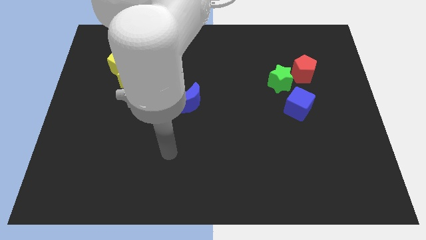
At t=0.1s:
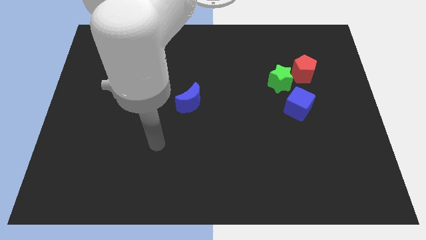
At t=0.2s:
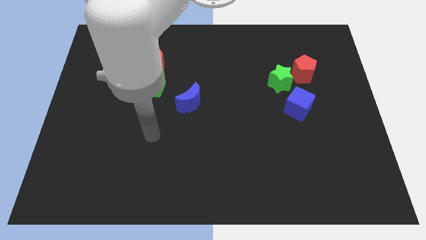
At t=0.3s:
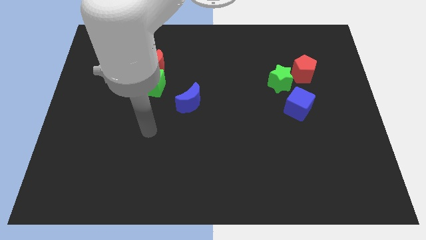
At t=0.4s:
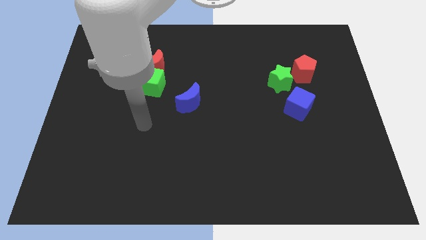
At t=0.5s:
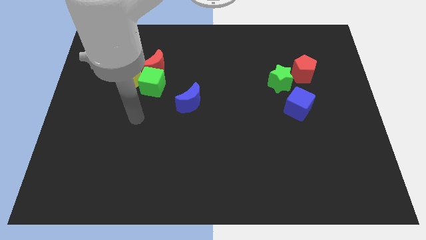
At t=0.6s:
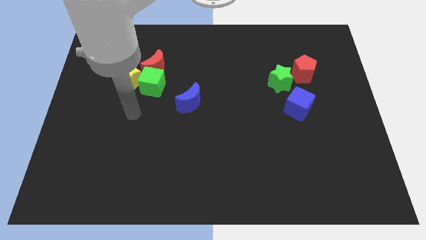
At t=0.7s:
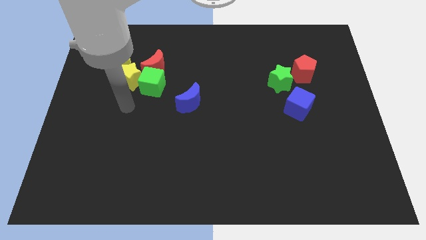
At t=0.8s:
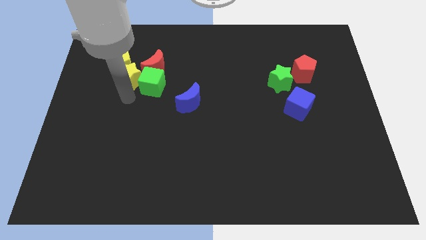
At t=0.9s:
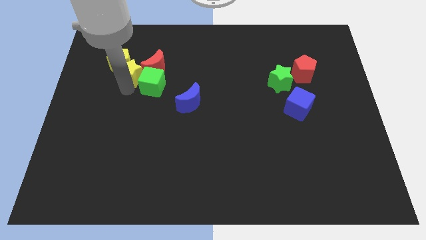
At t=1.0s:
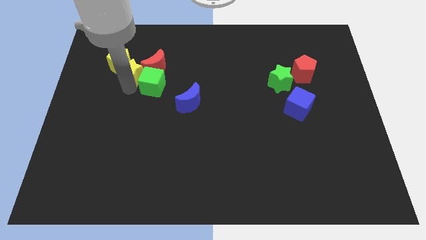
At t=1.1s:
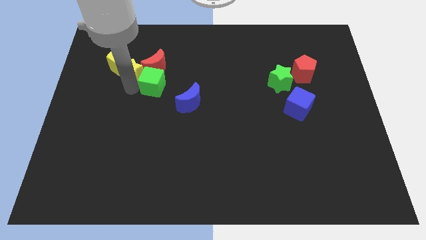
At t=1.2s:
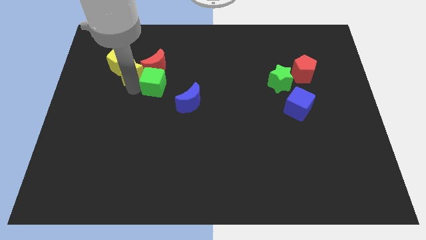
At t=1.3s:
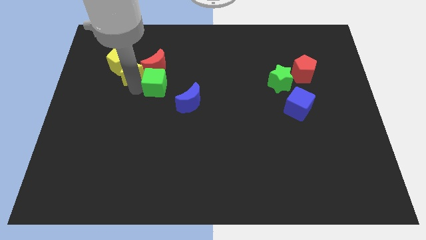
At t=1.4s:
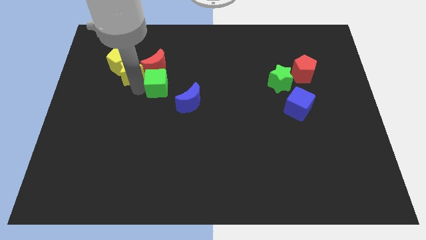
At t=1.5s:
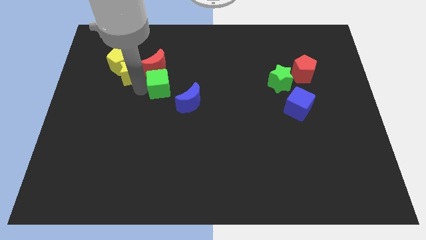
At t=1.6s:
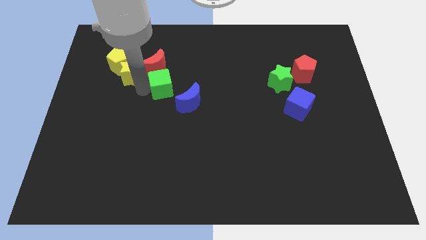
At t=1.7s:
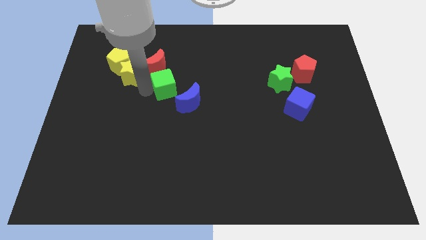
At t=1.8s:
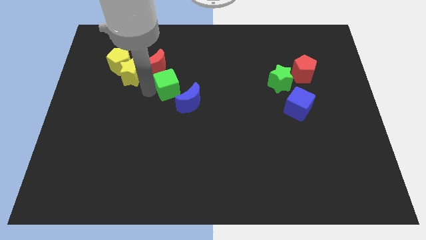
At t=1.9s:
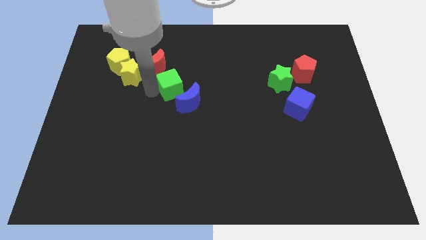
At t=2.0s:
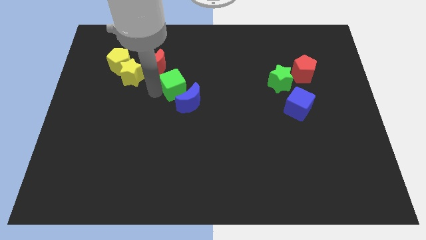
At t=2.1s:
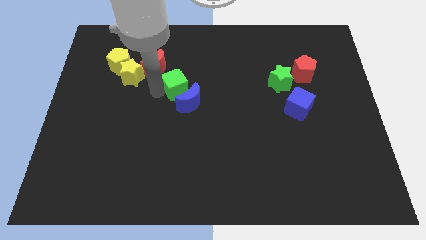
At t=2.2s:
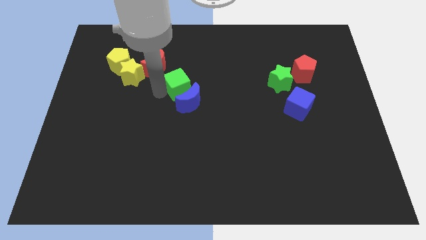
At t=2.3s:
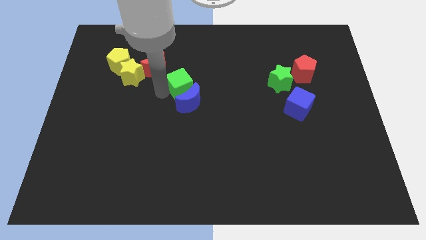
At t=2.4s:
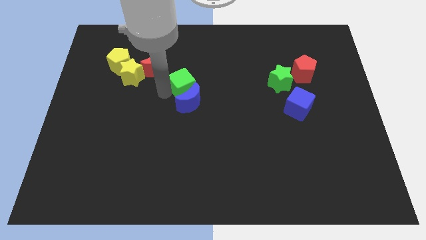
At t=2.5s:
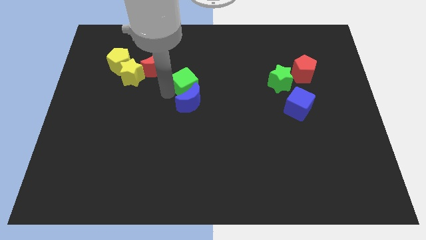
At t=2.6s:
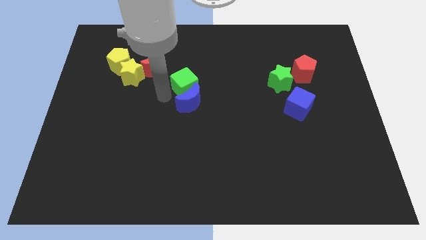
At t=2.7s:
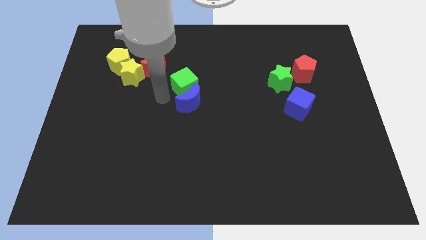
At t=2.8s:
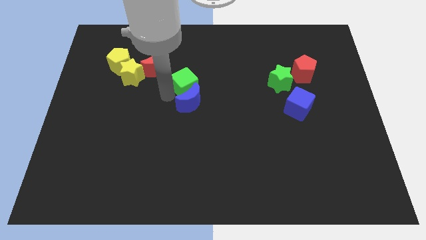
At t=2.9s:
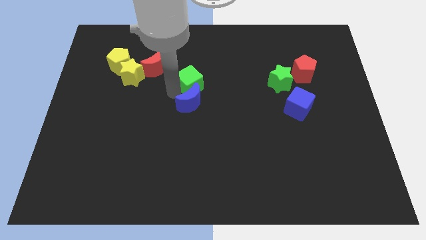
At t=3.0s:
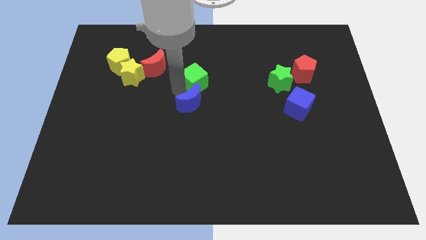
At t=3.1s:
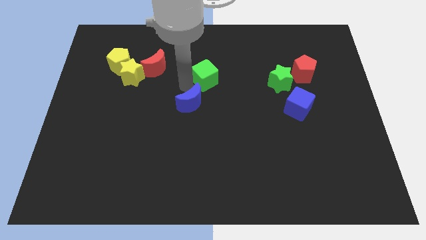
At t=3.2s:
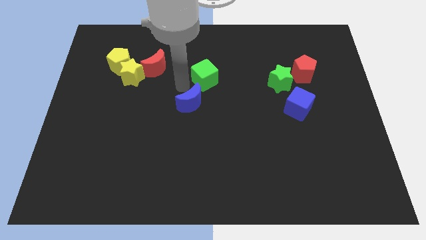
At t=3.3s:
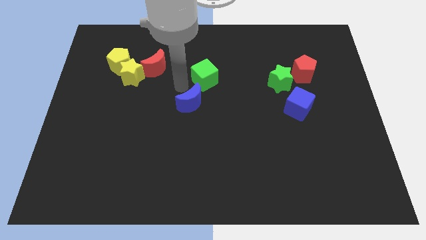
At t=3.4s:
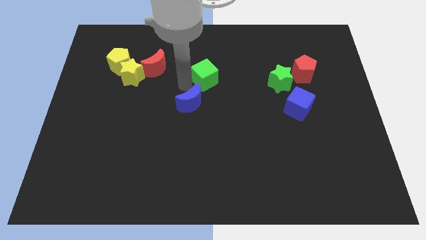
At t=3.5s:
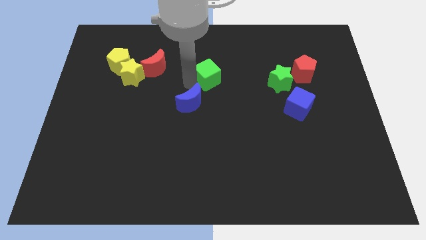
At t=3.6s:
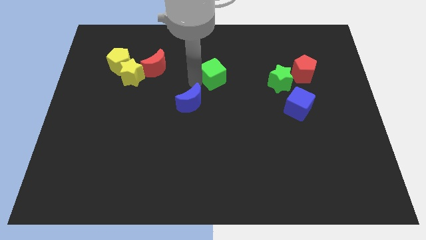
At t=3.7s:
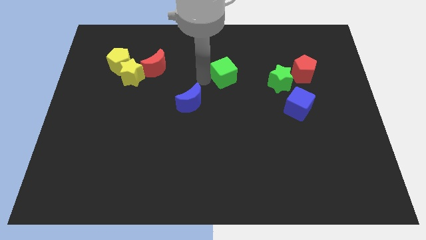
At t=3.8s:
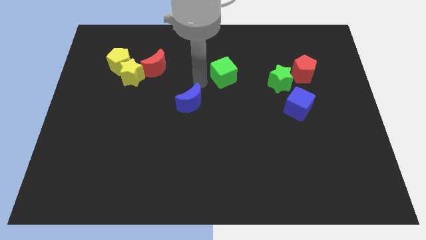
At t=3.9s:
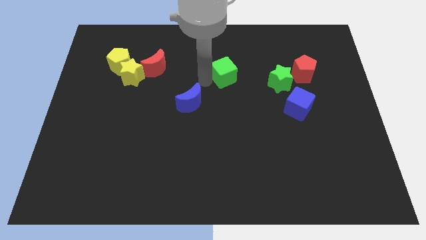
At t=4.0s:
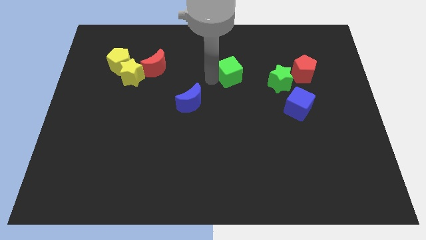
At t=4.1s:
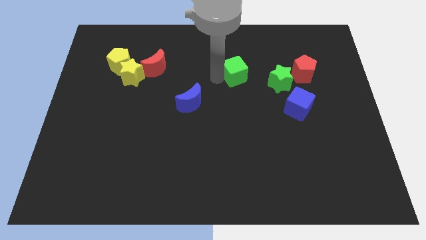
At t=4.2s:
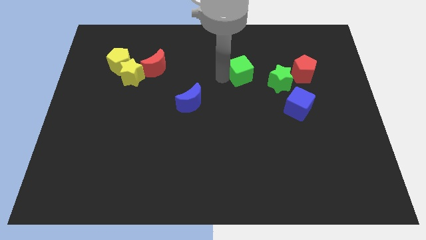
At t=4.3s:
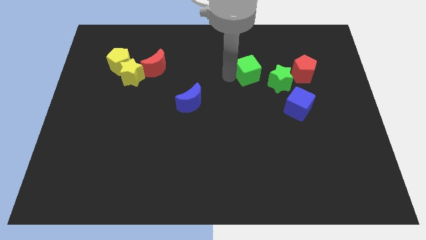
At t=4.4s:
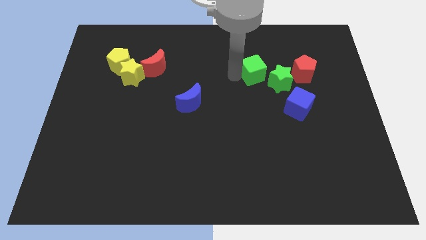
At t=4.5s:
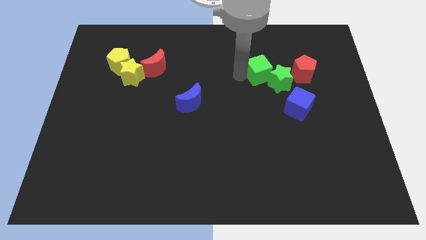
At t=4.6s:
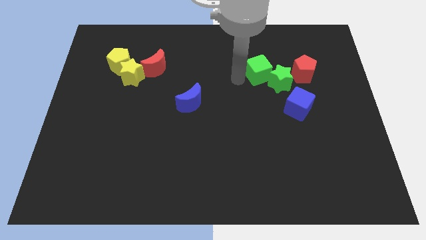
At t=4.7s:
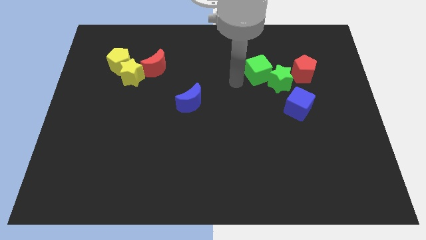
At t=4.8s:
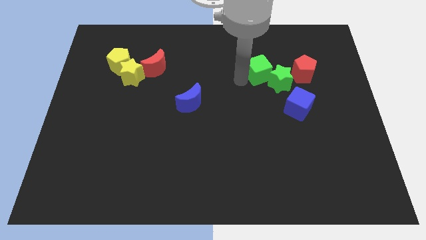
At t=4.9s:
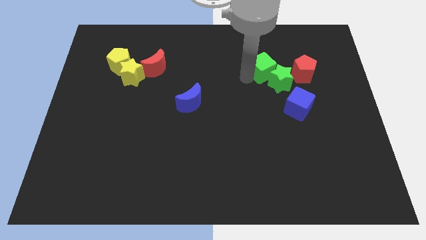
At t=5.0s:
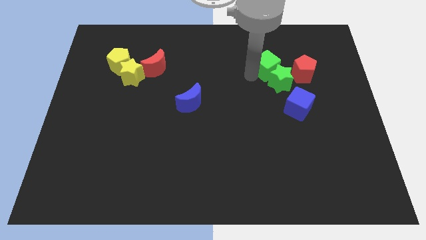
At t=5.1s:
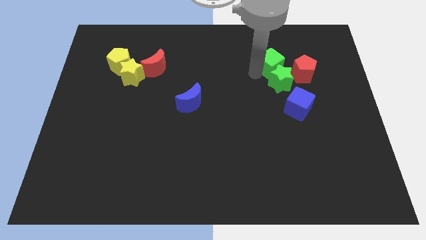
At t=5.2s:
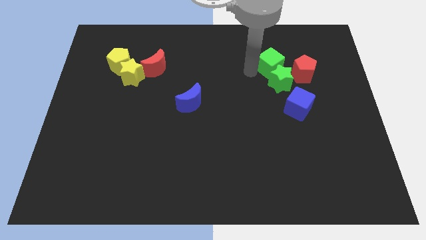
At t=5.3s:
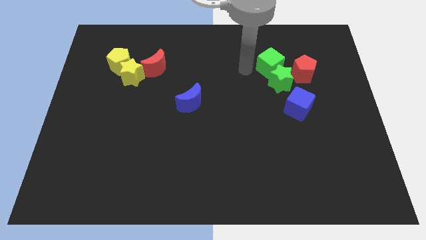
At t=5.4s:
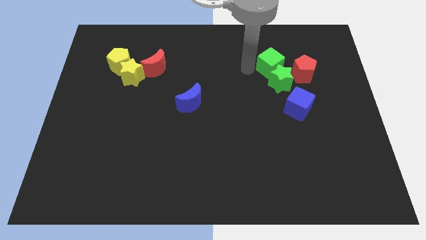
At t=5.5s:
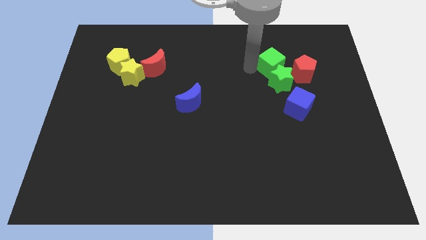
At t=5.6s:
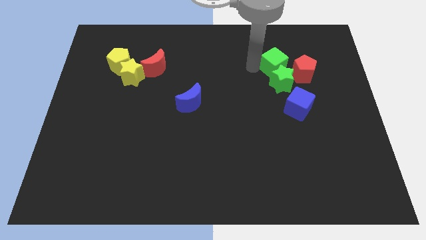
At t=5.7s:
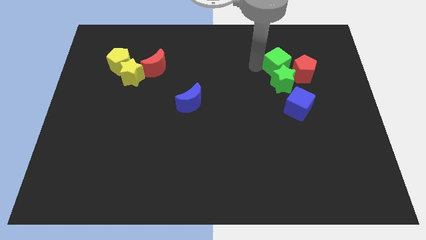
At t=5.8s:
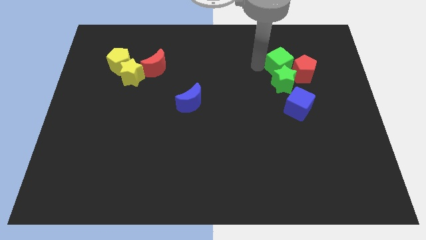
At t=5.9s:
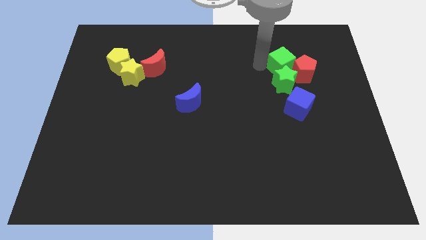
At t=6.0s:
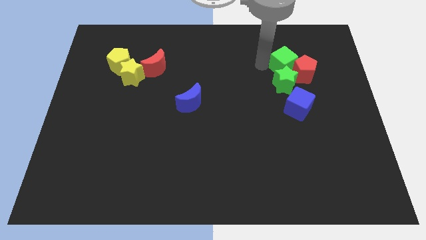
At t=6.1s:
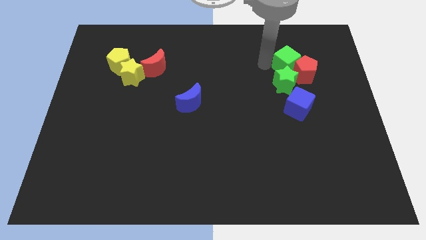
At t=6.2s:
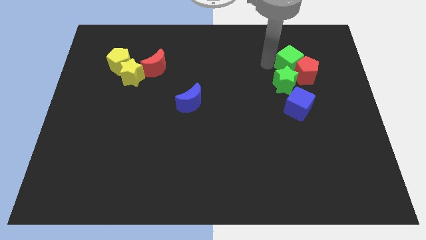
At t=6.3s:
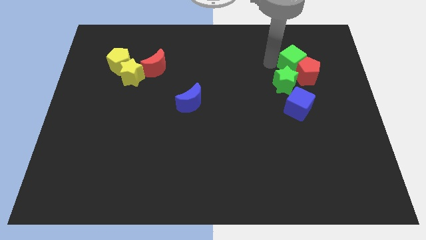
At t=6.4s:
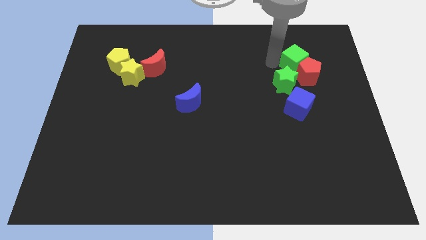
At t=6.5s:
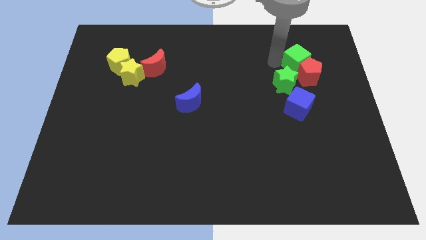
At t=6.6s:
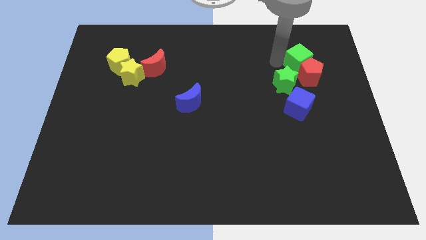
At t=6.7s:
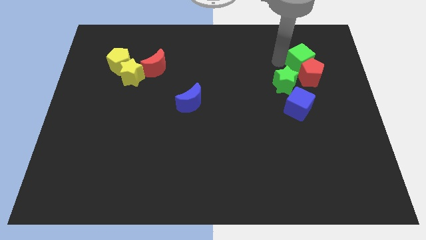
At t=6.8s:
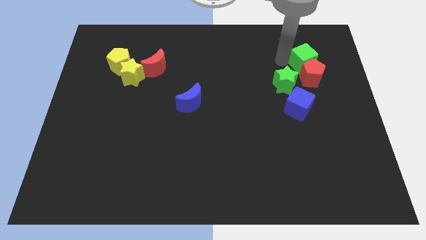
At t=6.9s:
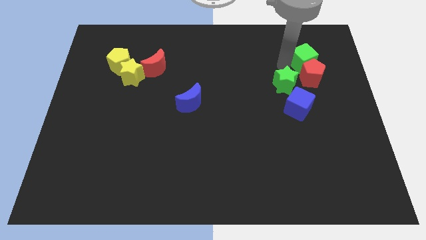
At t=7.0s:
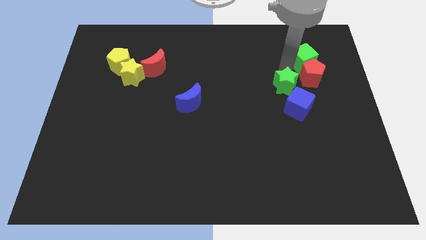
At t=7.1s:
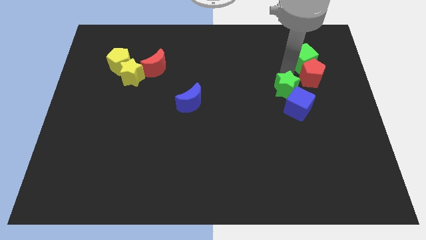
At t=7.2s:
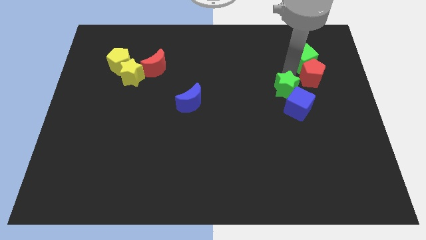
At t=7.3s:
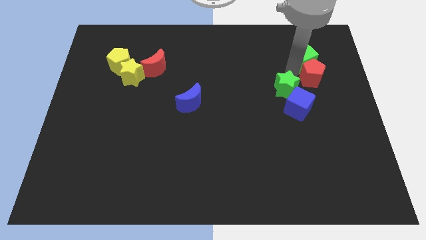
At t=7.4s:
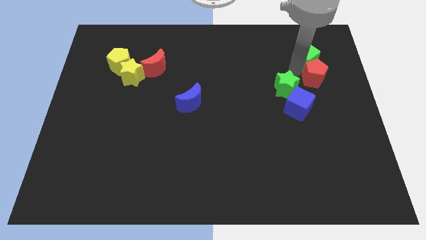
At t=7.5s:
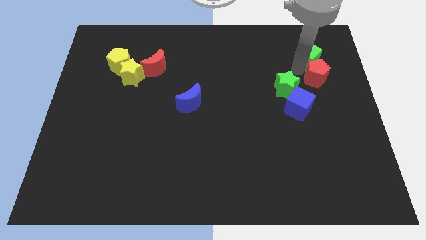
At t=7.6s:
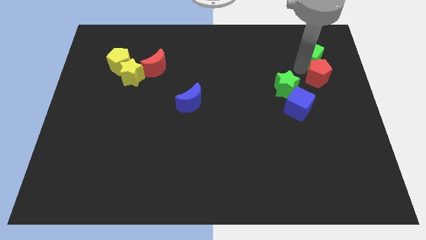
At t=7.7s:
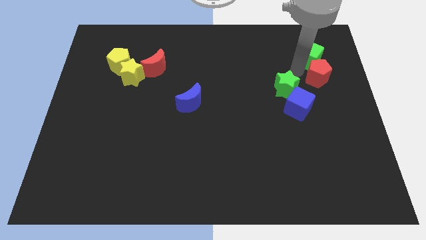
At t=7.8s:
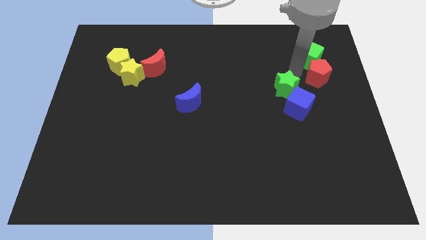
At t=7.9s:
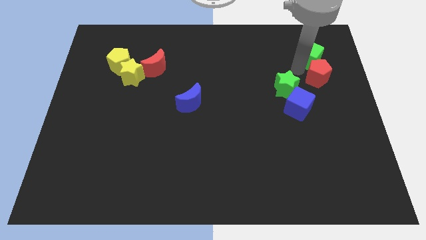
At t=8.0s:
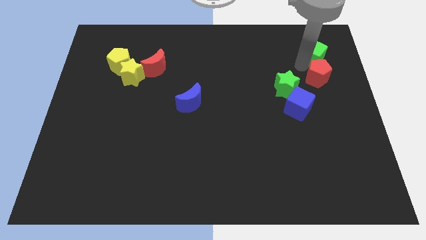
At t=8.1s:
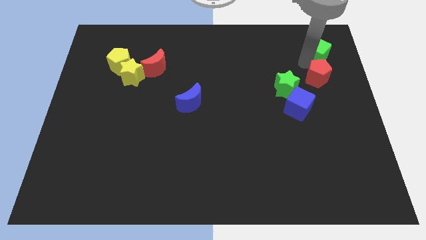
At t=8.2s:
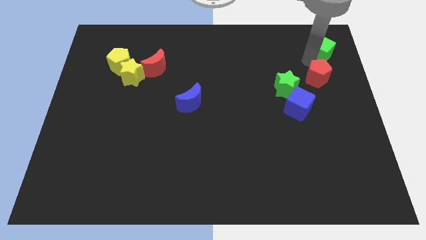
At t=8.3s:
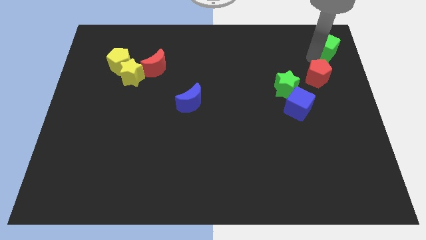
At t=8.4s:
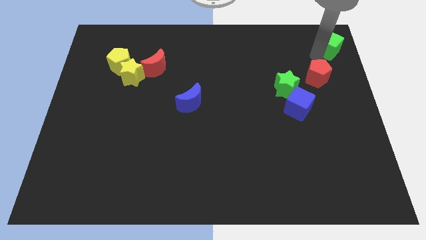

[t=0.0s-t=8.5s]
slide the green cube to the top right of the board
